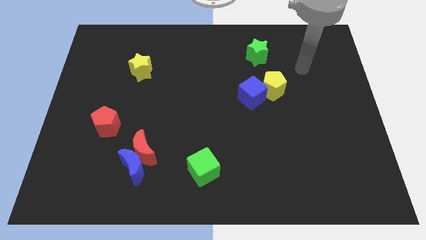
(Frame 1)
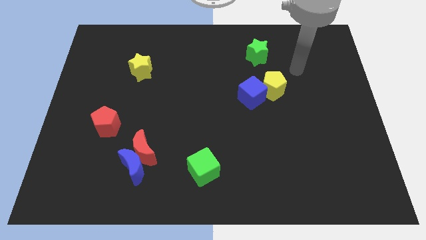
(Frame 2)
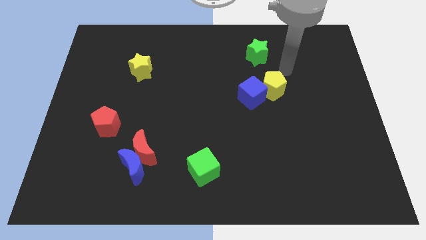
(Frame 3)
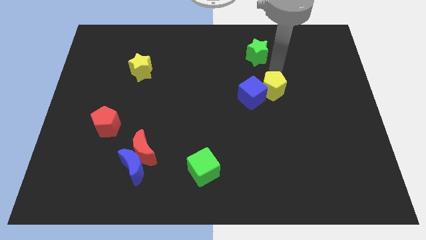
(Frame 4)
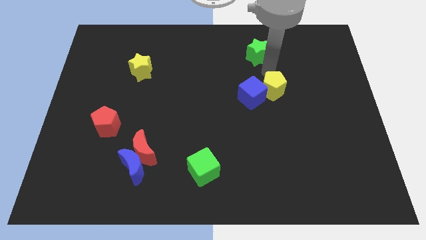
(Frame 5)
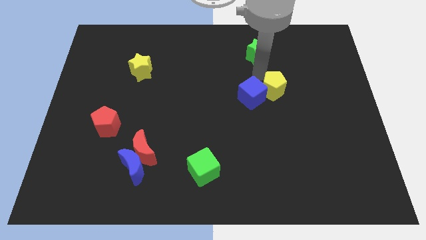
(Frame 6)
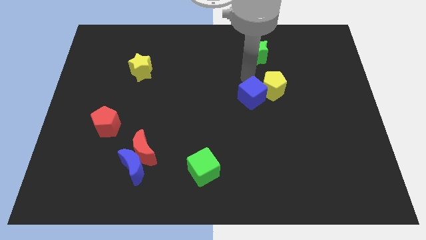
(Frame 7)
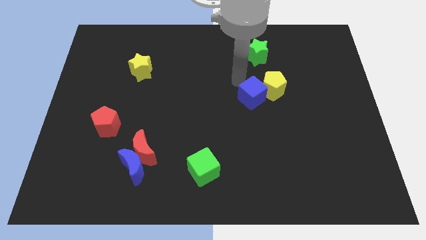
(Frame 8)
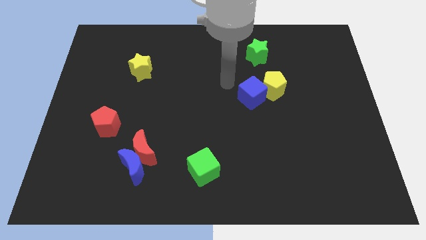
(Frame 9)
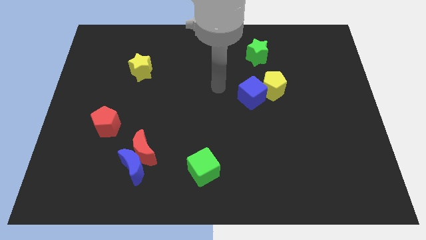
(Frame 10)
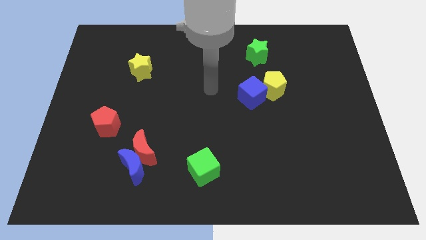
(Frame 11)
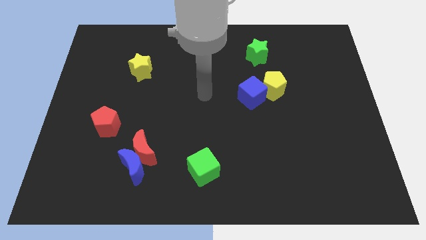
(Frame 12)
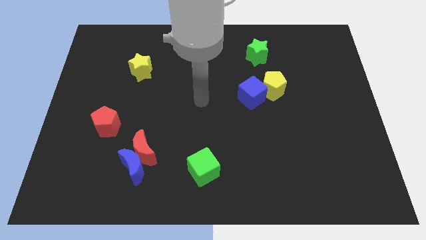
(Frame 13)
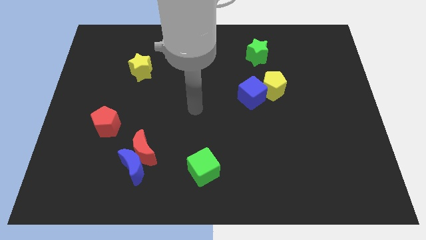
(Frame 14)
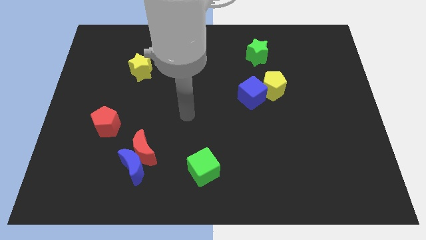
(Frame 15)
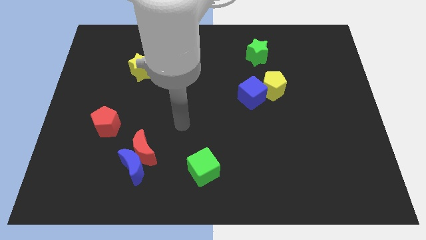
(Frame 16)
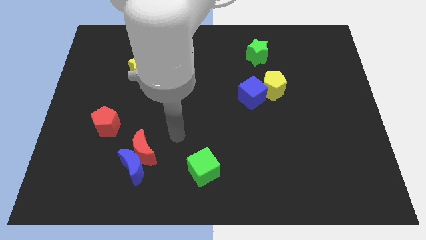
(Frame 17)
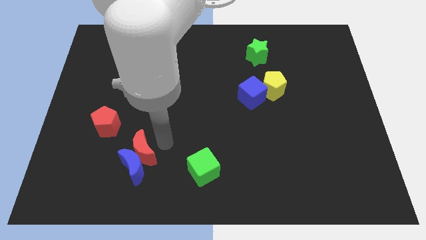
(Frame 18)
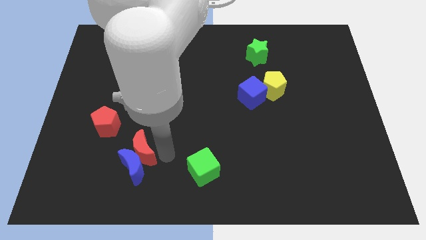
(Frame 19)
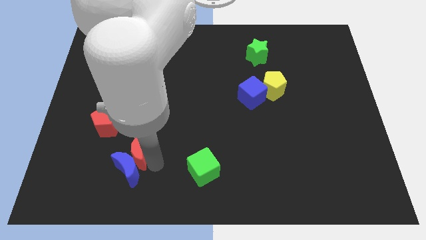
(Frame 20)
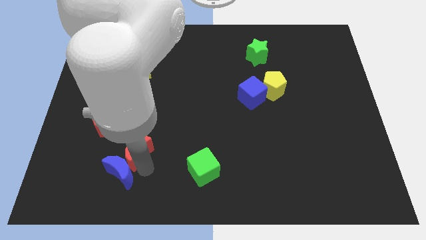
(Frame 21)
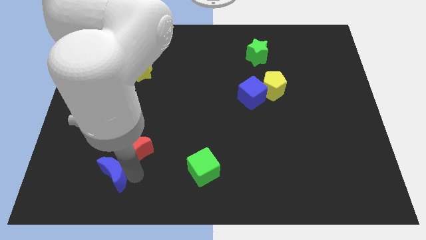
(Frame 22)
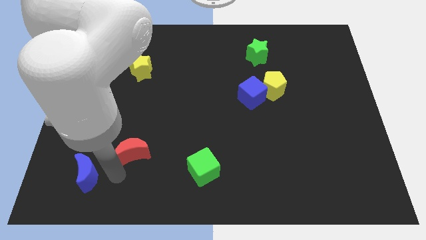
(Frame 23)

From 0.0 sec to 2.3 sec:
pull the red moon apart from the blue moon

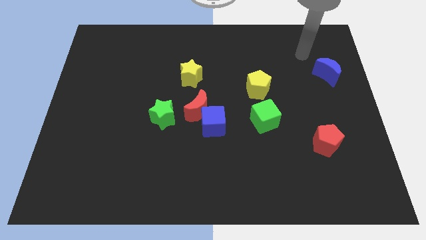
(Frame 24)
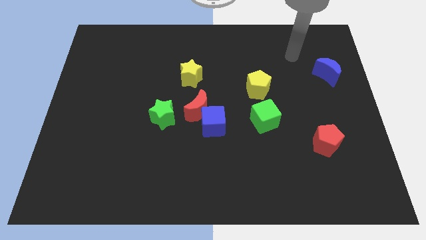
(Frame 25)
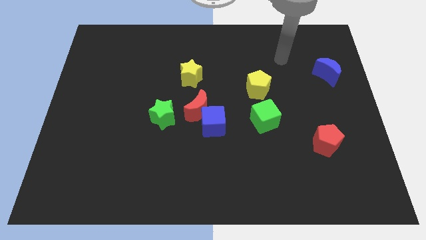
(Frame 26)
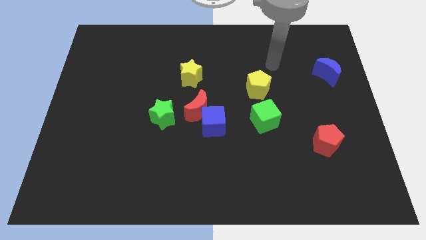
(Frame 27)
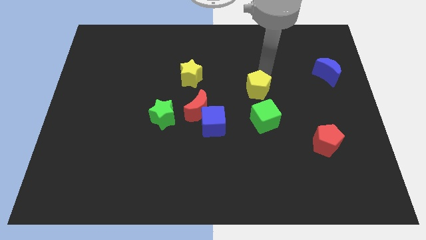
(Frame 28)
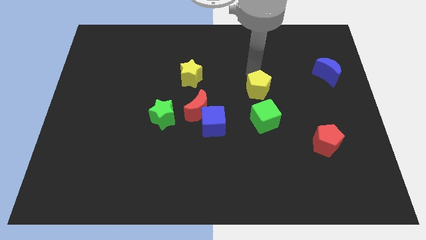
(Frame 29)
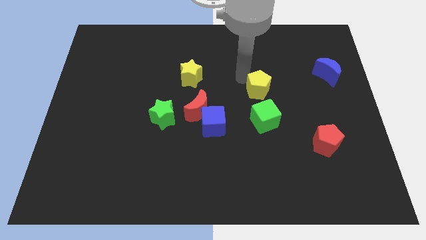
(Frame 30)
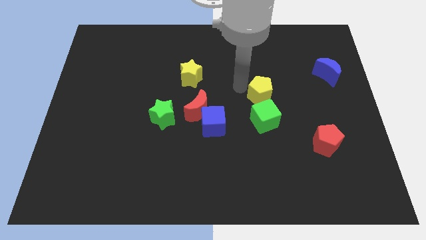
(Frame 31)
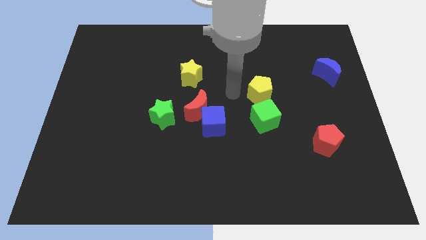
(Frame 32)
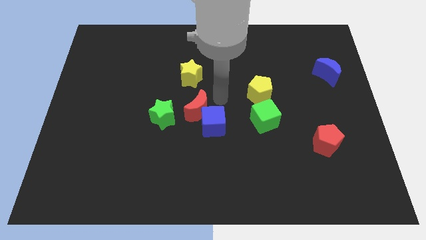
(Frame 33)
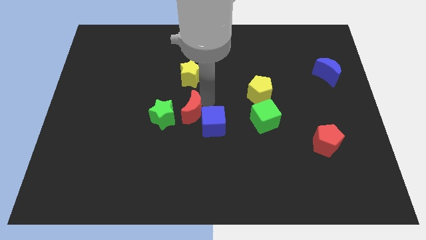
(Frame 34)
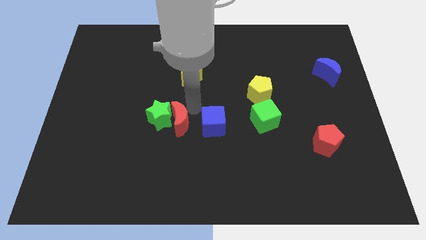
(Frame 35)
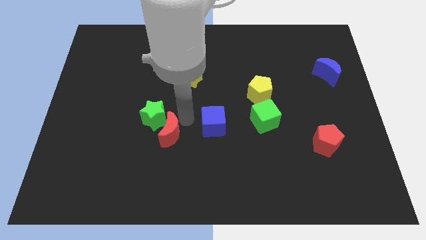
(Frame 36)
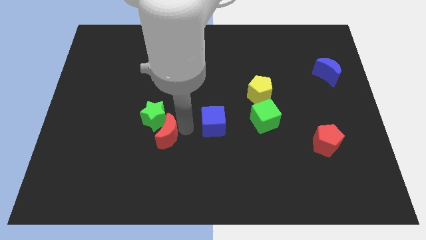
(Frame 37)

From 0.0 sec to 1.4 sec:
move the blue cube away from the red moon

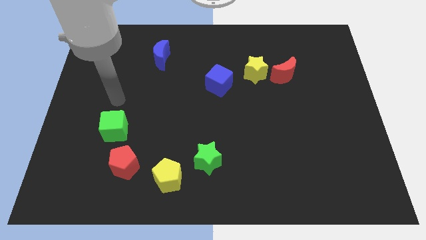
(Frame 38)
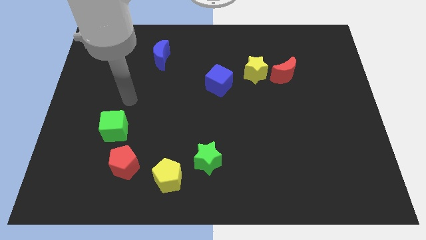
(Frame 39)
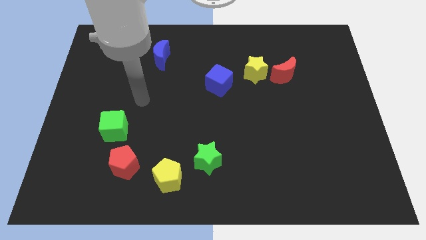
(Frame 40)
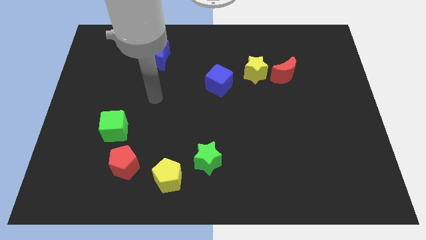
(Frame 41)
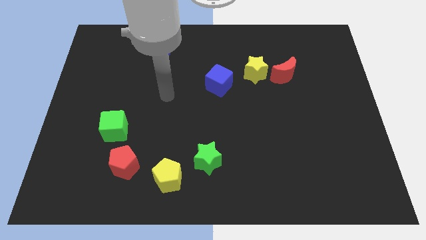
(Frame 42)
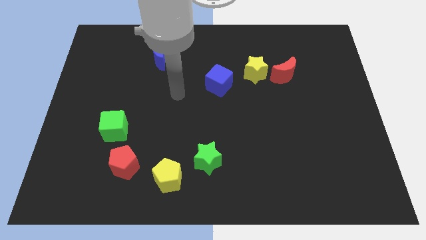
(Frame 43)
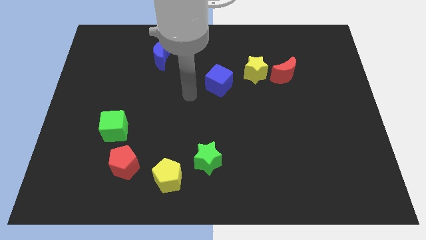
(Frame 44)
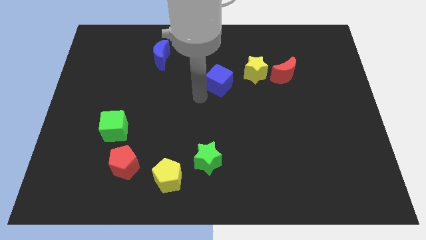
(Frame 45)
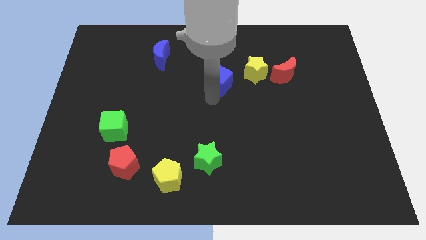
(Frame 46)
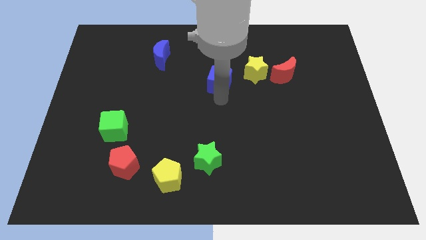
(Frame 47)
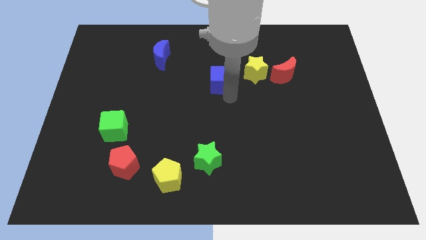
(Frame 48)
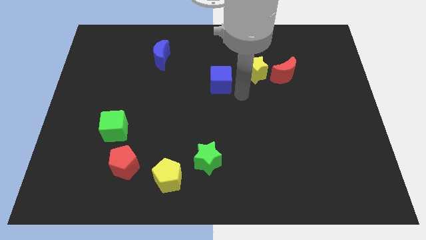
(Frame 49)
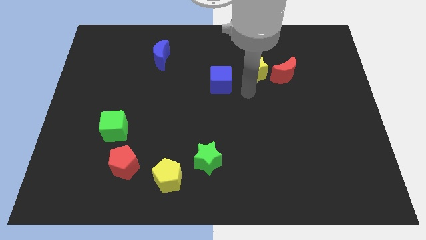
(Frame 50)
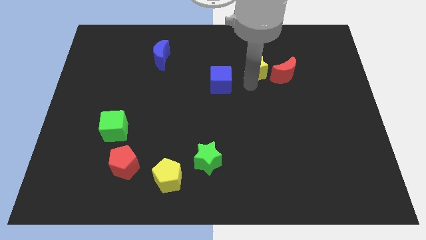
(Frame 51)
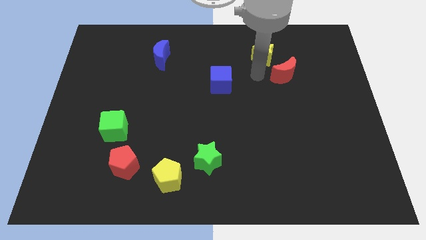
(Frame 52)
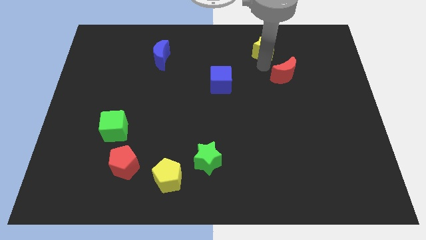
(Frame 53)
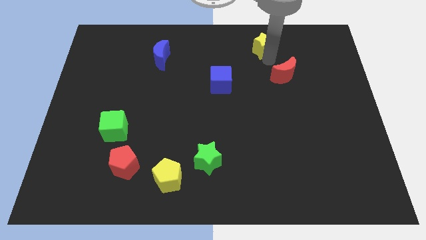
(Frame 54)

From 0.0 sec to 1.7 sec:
move the red moon away from the yellow star

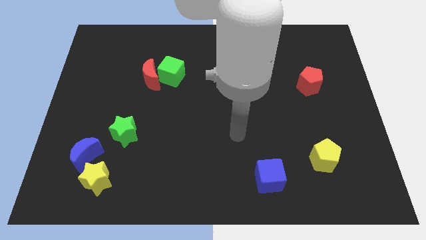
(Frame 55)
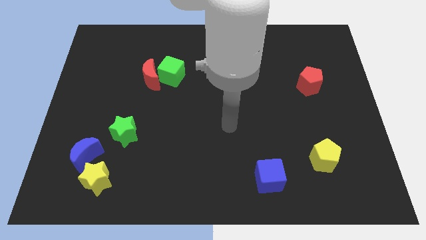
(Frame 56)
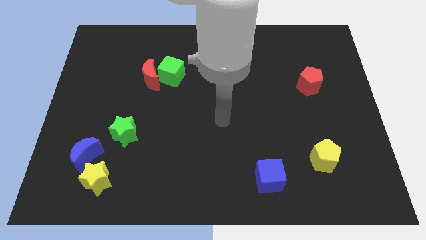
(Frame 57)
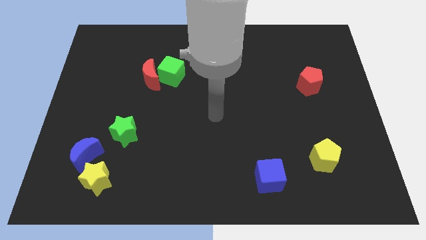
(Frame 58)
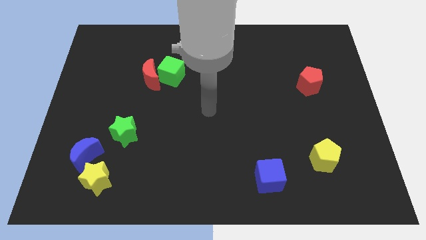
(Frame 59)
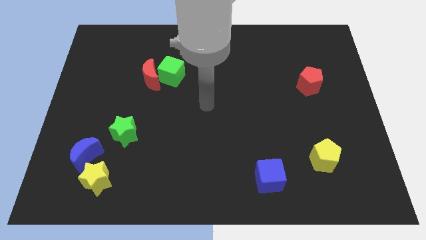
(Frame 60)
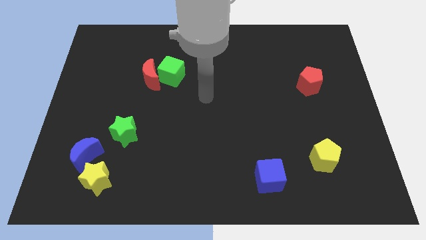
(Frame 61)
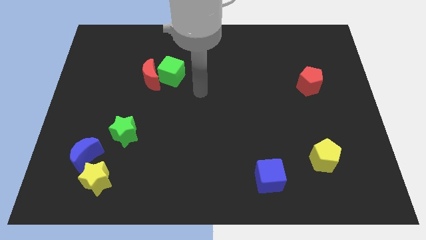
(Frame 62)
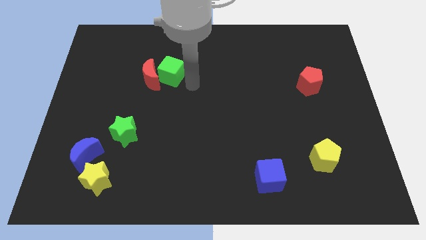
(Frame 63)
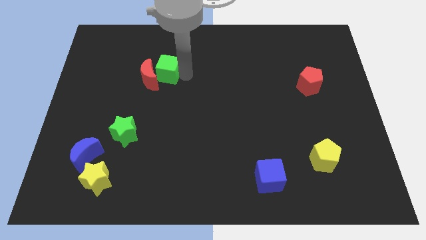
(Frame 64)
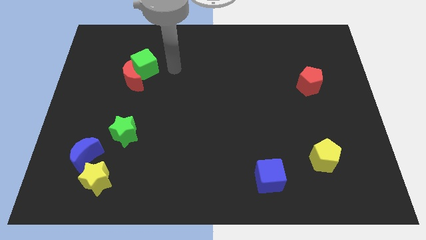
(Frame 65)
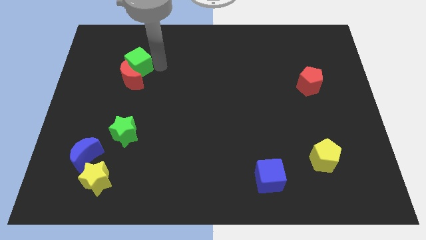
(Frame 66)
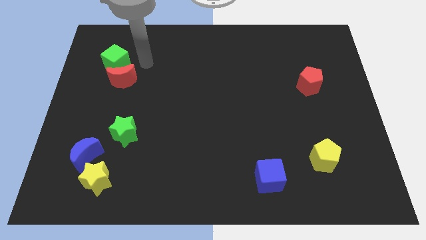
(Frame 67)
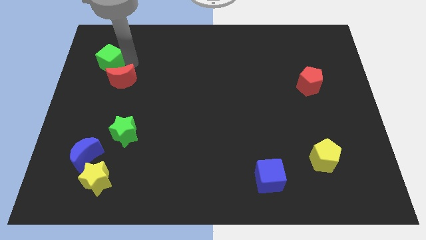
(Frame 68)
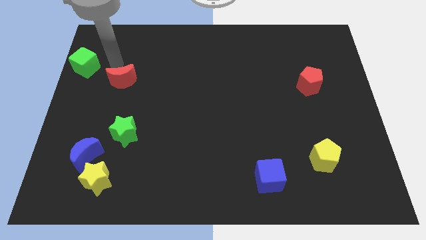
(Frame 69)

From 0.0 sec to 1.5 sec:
move the red moon away from the green cube

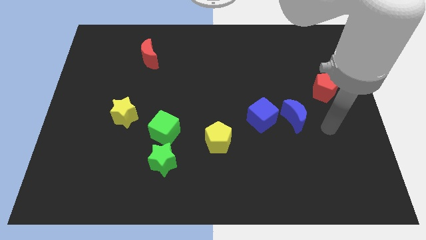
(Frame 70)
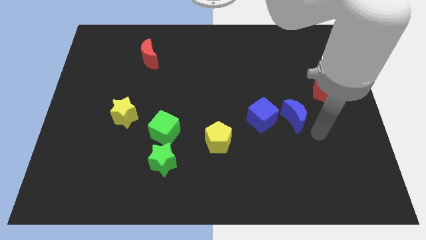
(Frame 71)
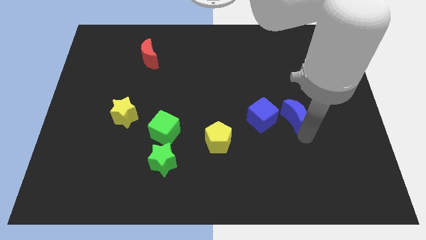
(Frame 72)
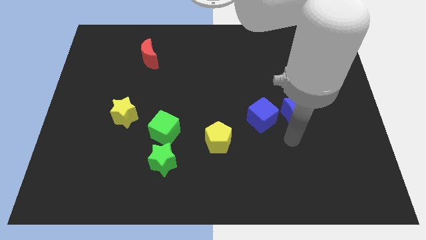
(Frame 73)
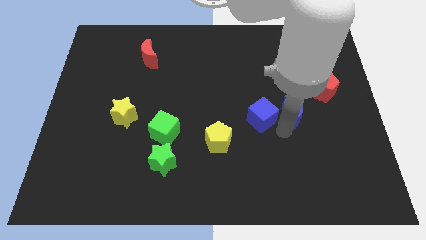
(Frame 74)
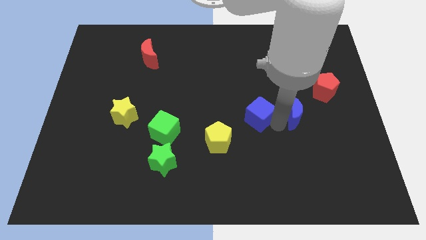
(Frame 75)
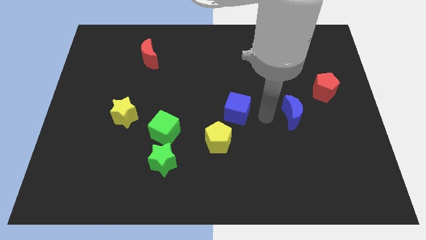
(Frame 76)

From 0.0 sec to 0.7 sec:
separate the blue moon from the blue cube

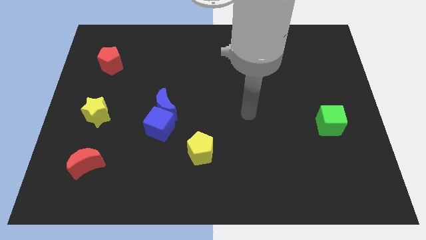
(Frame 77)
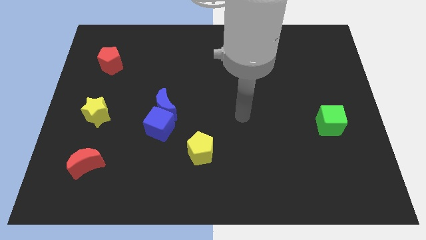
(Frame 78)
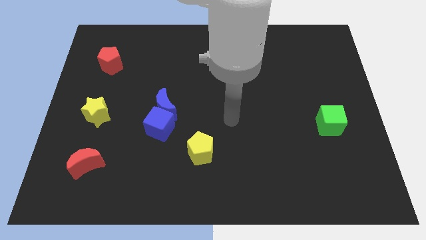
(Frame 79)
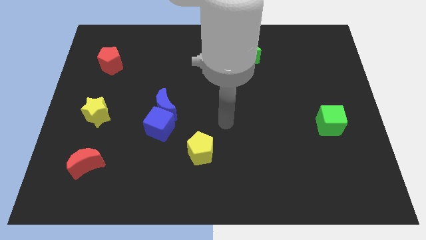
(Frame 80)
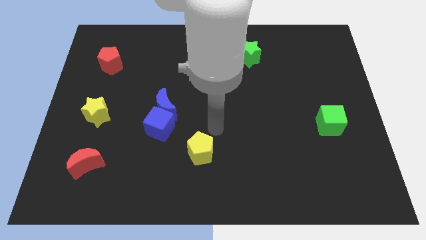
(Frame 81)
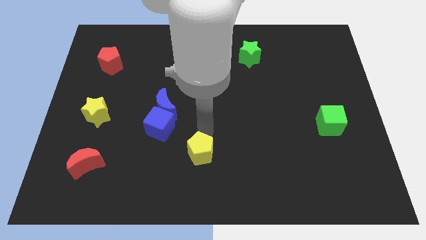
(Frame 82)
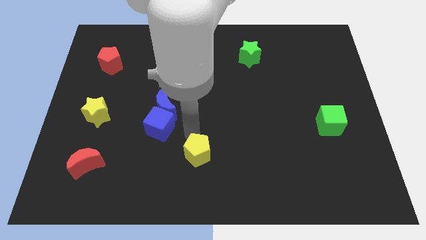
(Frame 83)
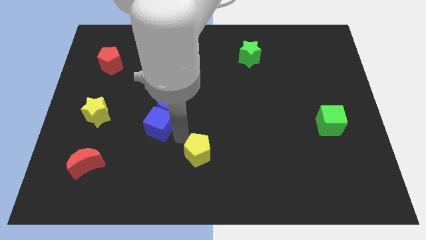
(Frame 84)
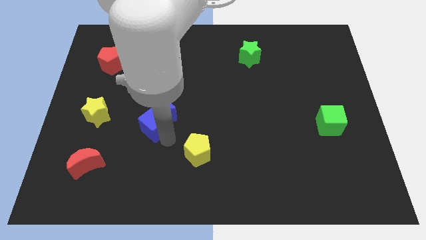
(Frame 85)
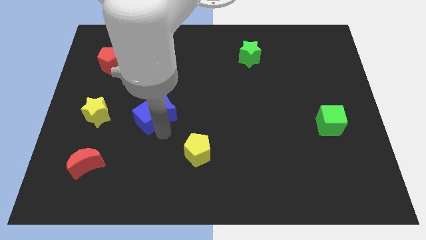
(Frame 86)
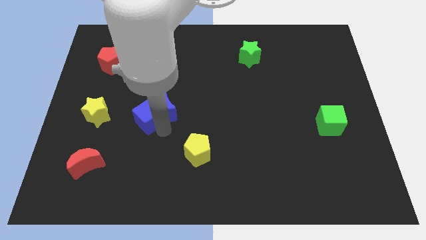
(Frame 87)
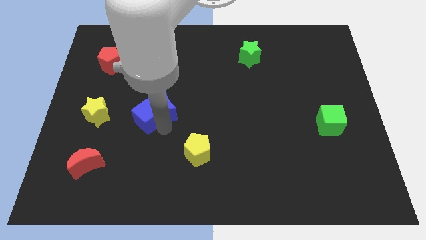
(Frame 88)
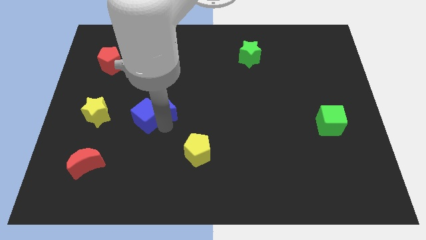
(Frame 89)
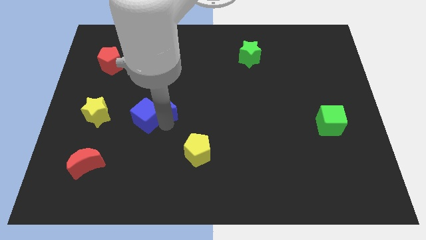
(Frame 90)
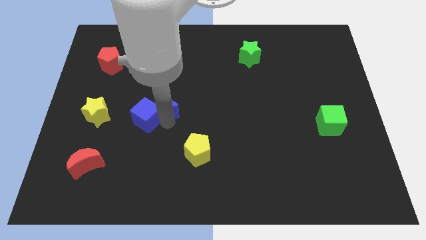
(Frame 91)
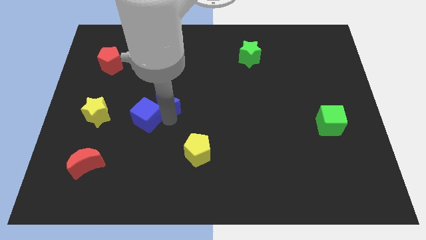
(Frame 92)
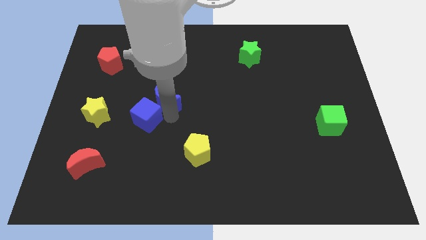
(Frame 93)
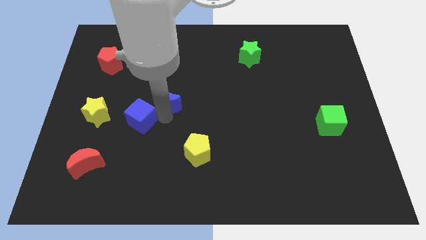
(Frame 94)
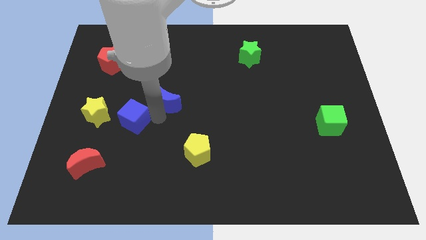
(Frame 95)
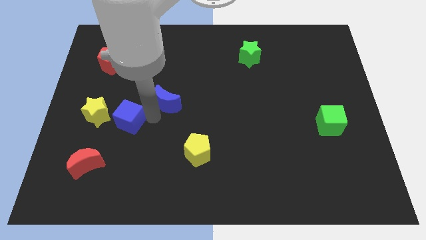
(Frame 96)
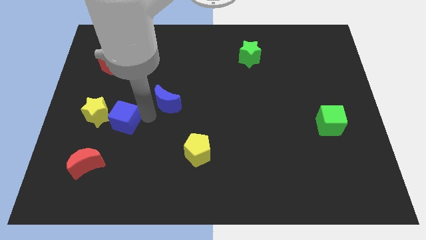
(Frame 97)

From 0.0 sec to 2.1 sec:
pull the blue moon apart from the blue cube
